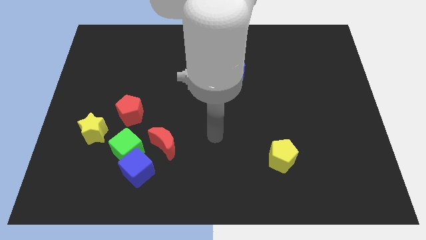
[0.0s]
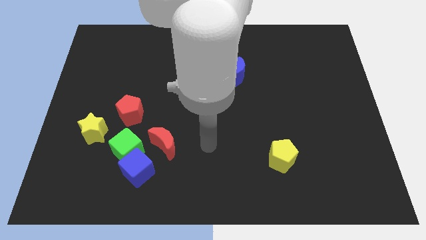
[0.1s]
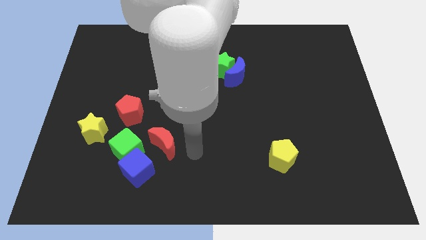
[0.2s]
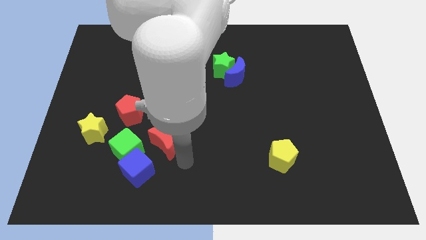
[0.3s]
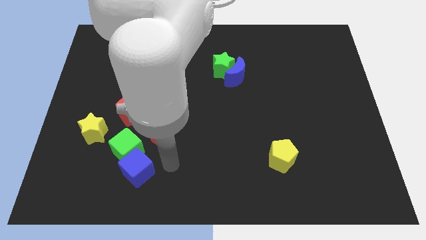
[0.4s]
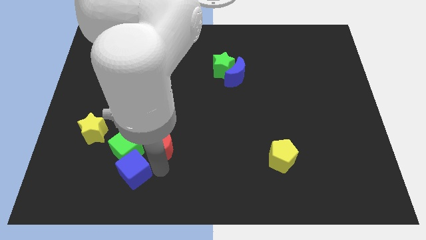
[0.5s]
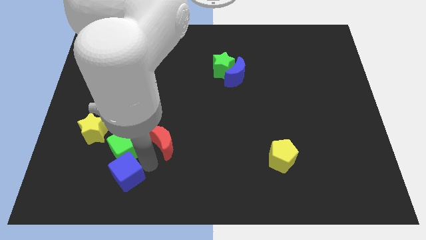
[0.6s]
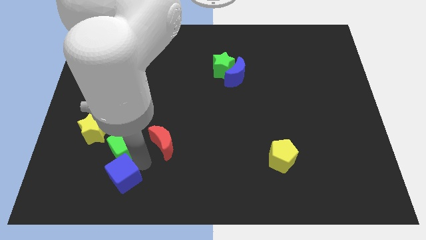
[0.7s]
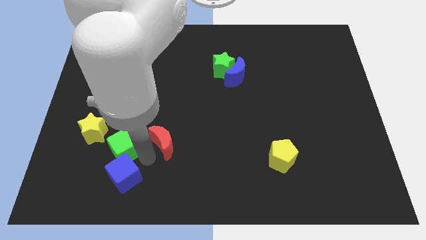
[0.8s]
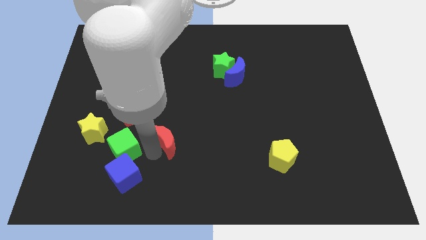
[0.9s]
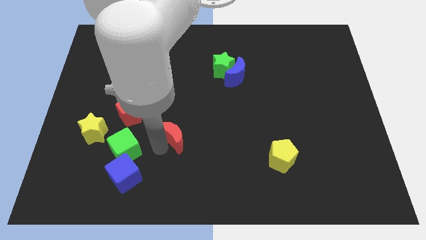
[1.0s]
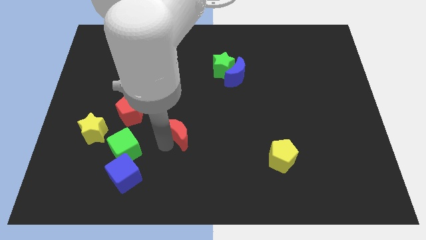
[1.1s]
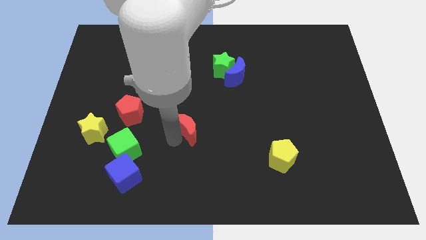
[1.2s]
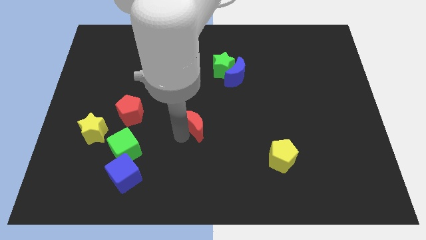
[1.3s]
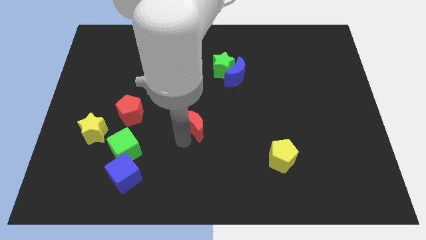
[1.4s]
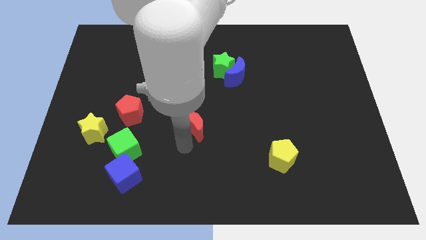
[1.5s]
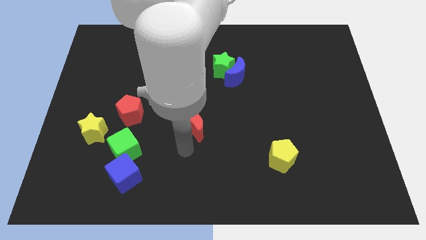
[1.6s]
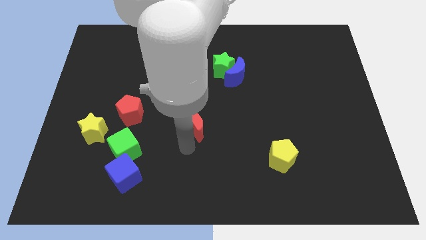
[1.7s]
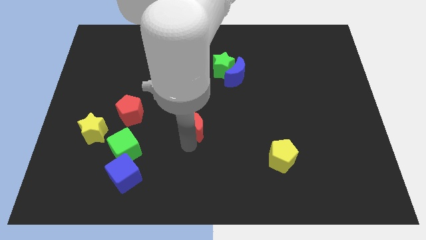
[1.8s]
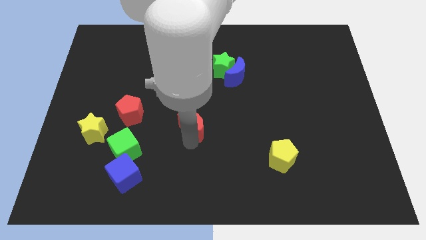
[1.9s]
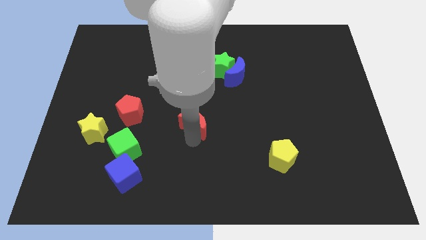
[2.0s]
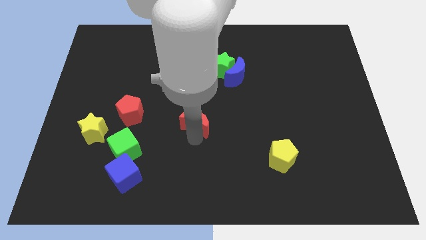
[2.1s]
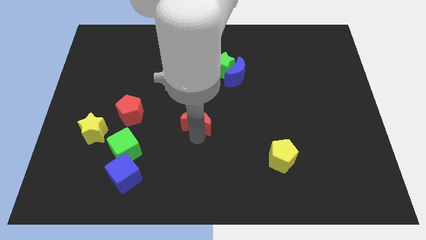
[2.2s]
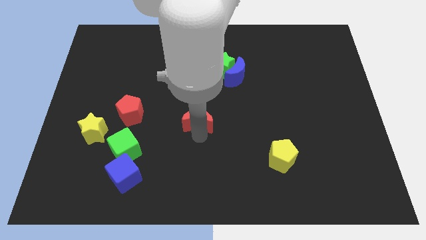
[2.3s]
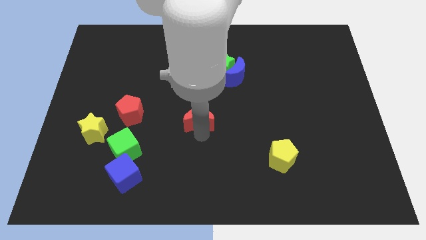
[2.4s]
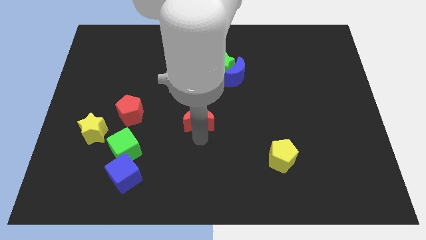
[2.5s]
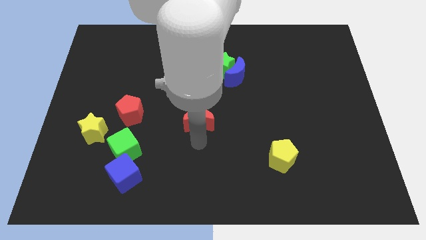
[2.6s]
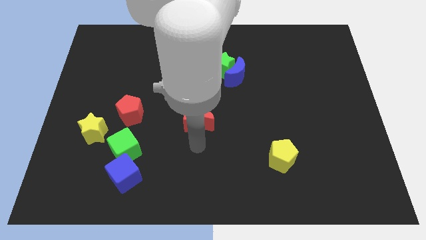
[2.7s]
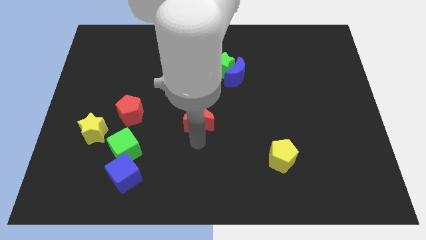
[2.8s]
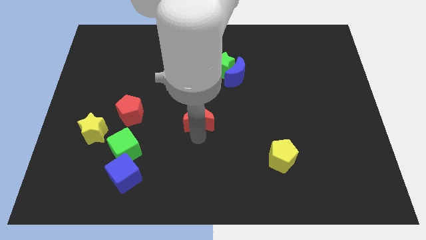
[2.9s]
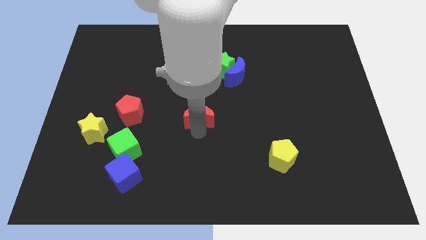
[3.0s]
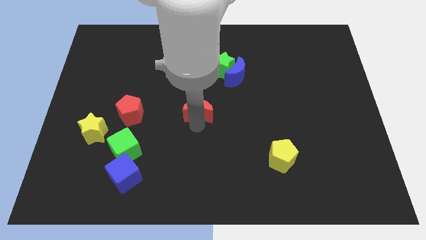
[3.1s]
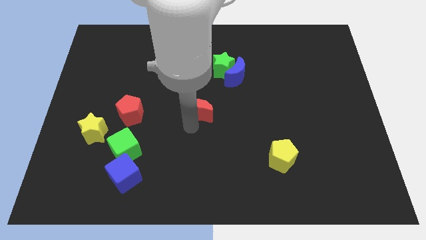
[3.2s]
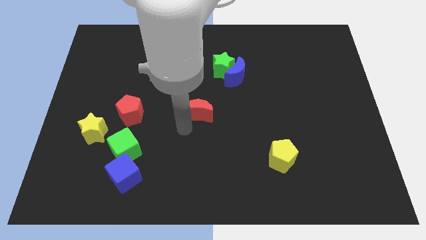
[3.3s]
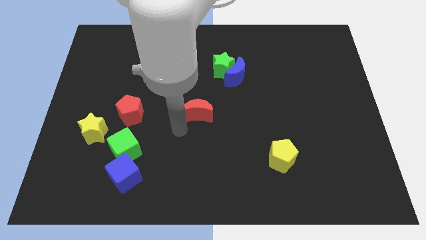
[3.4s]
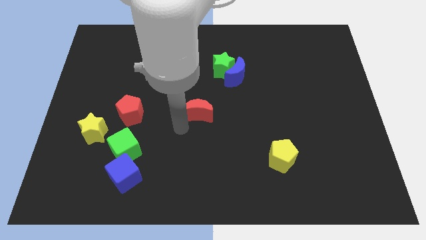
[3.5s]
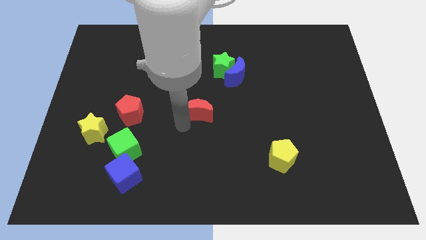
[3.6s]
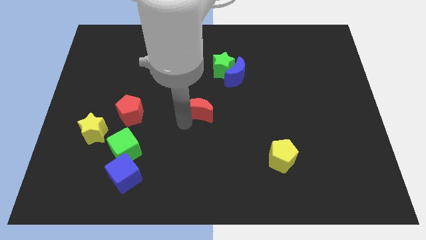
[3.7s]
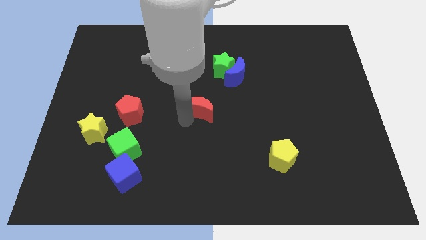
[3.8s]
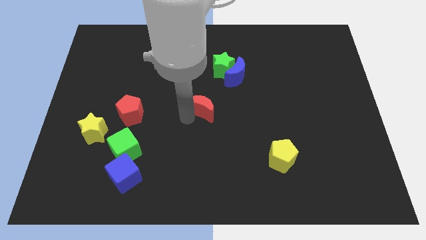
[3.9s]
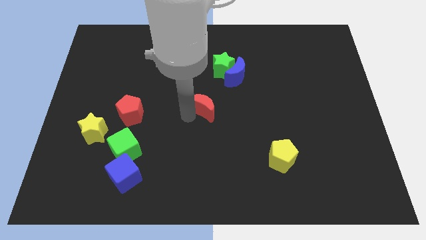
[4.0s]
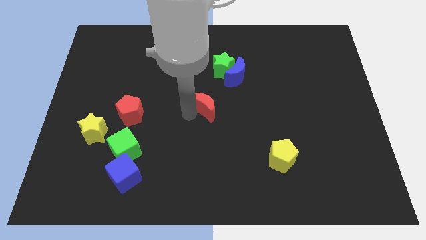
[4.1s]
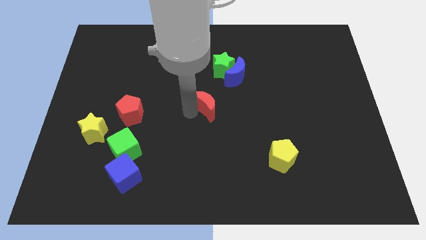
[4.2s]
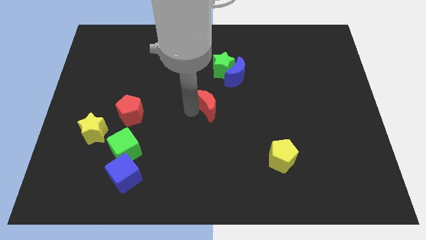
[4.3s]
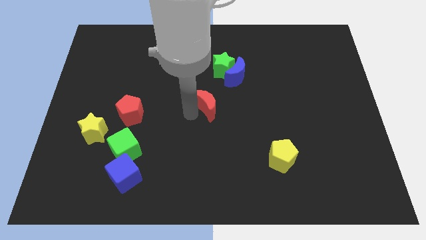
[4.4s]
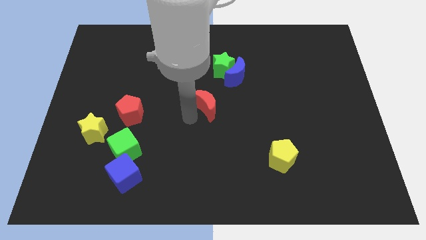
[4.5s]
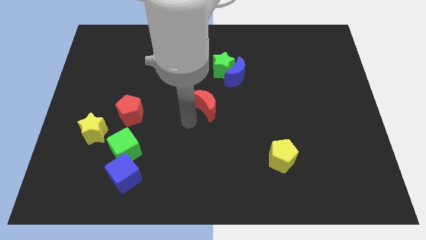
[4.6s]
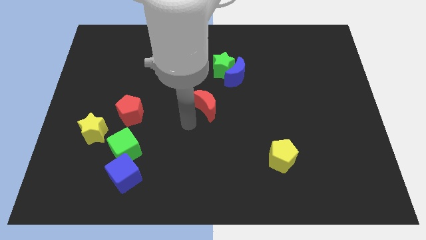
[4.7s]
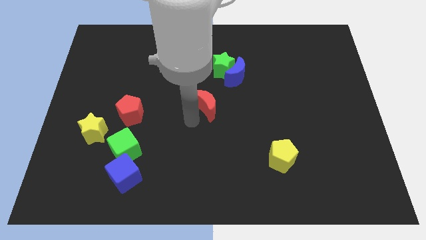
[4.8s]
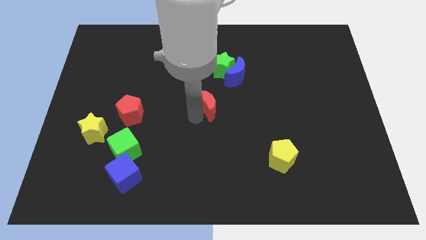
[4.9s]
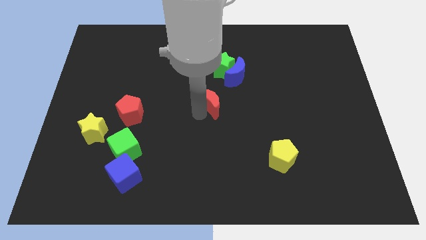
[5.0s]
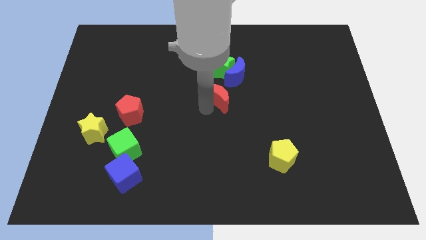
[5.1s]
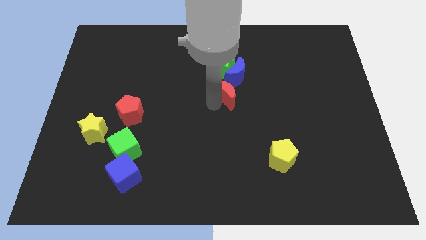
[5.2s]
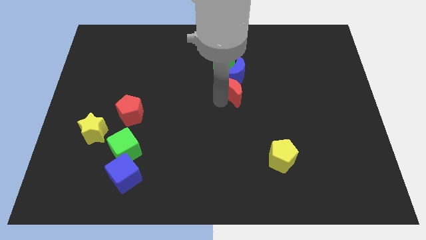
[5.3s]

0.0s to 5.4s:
push the red moon close to the blue moon

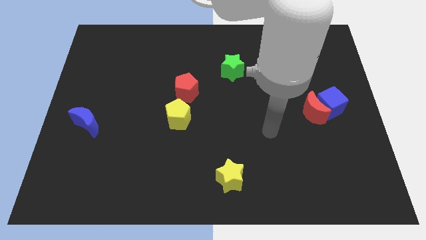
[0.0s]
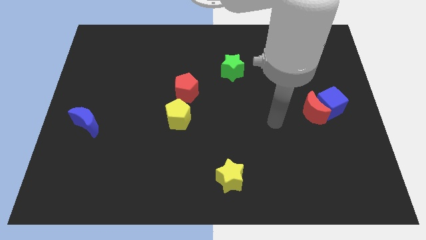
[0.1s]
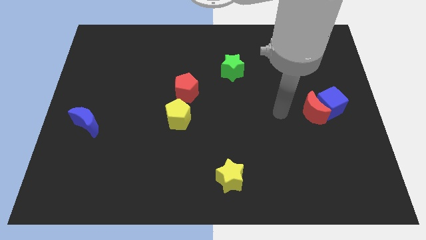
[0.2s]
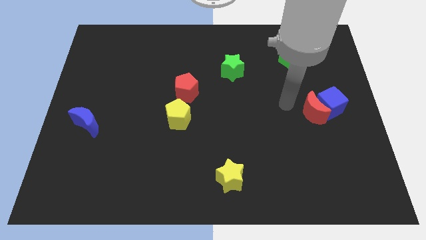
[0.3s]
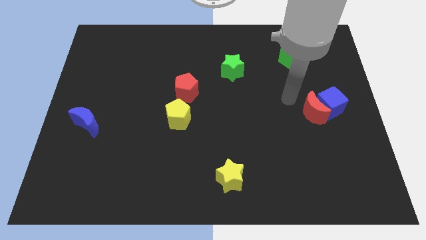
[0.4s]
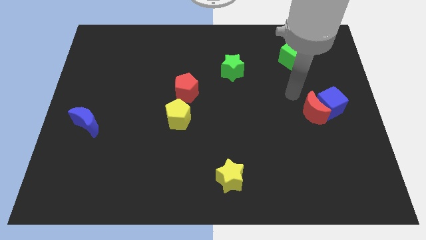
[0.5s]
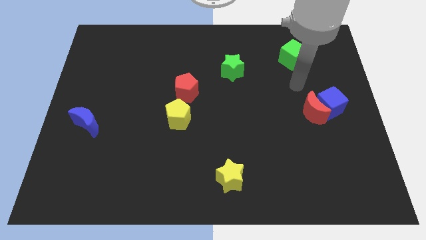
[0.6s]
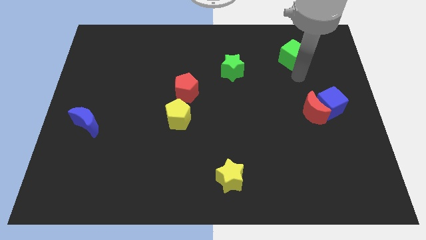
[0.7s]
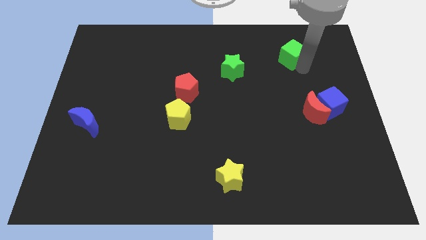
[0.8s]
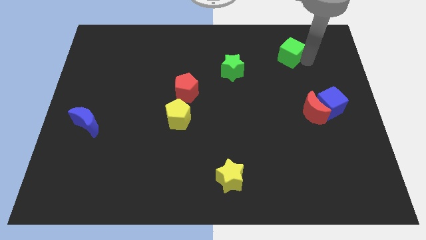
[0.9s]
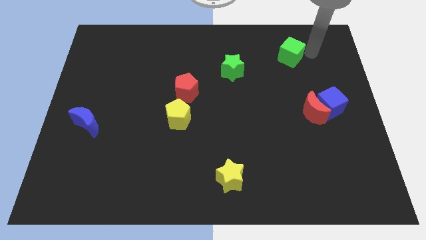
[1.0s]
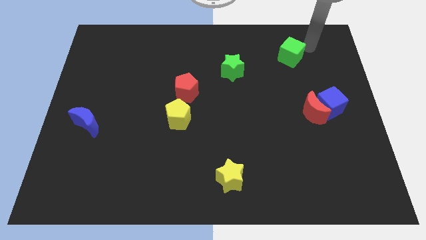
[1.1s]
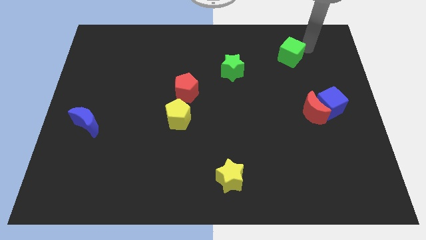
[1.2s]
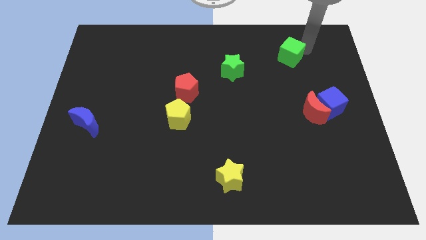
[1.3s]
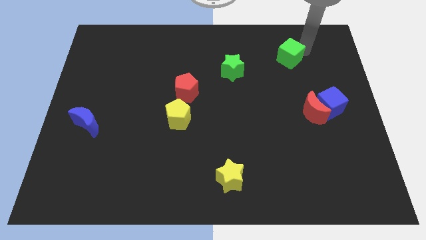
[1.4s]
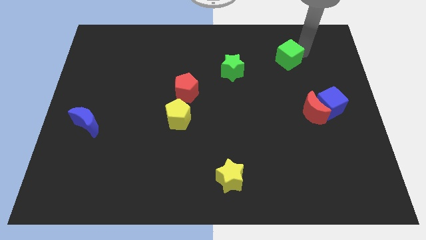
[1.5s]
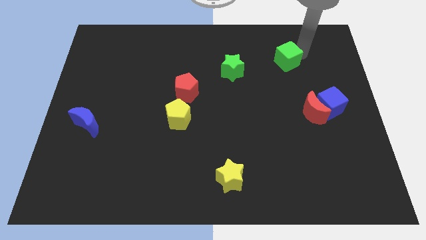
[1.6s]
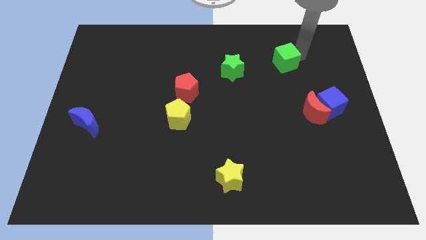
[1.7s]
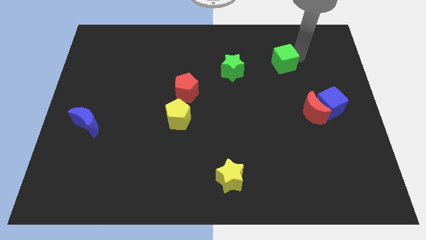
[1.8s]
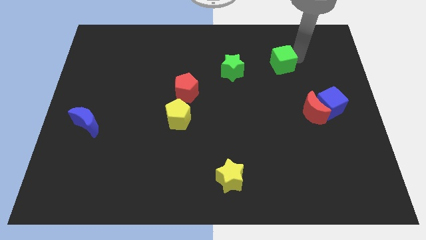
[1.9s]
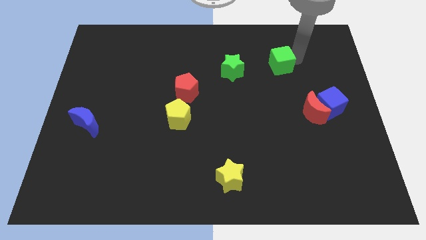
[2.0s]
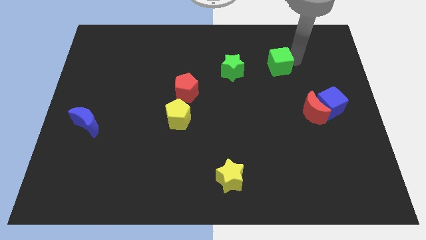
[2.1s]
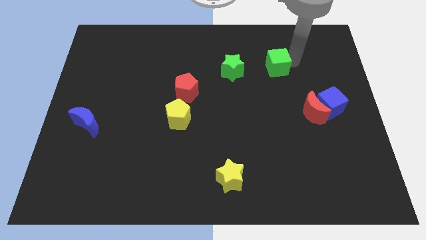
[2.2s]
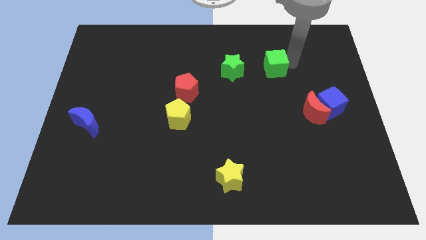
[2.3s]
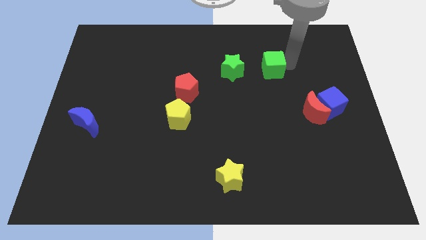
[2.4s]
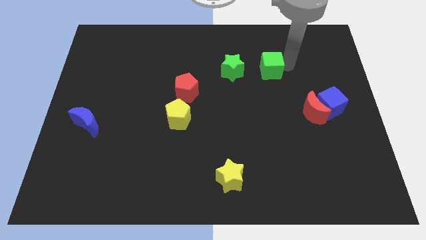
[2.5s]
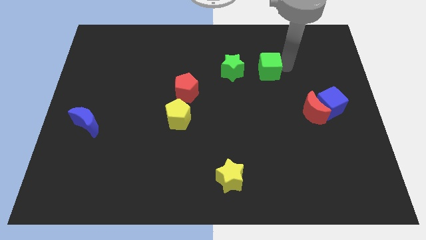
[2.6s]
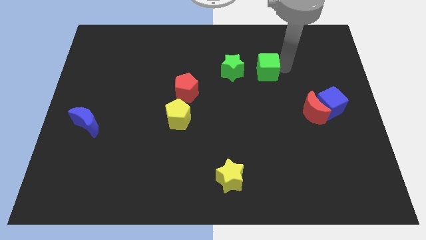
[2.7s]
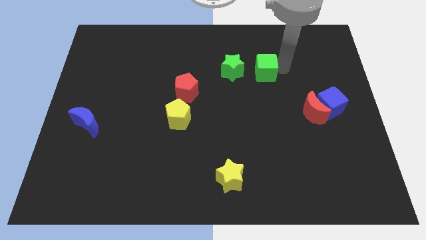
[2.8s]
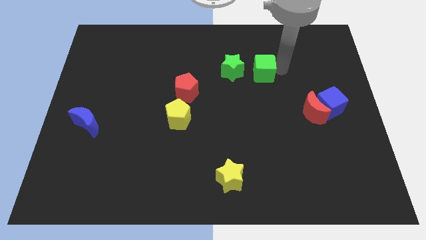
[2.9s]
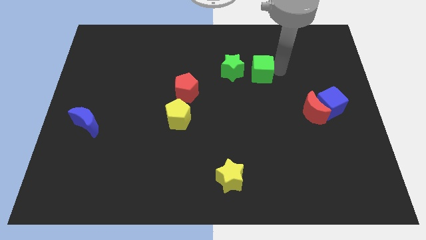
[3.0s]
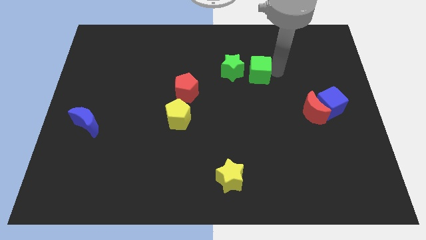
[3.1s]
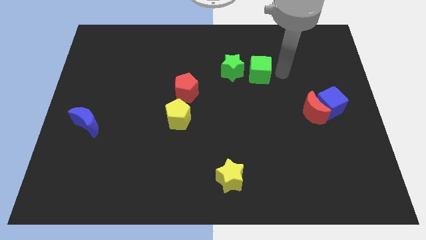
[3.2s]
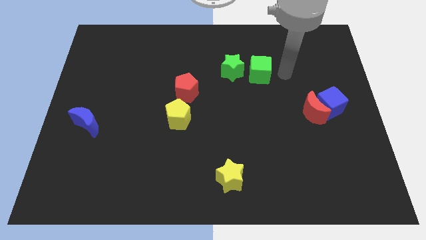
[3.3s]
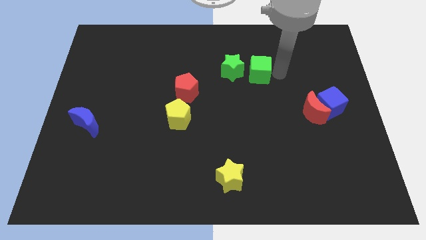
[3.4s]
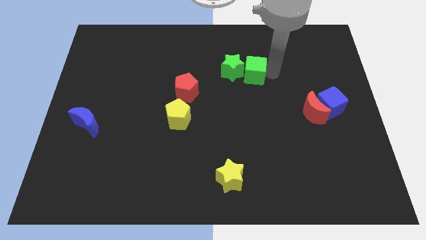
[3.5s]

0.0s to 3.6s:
move the green cube close to the green star
